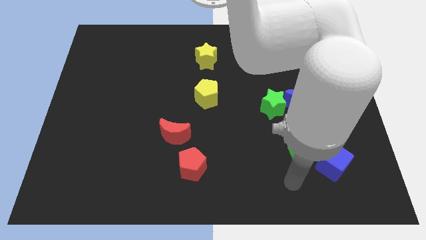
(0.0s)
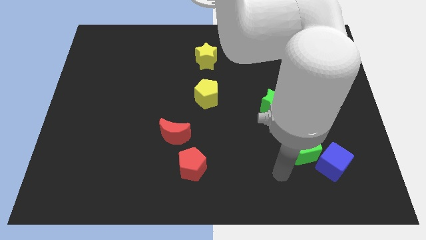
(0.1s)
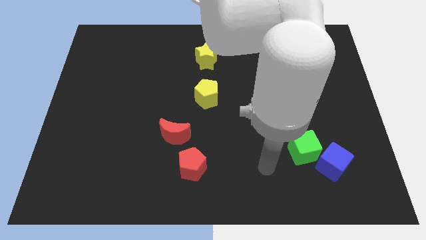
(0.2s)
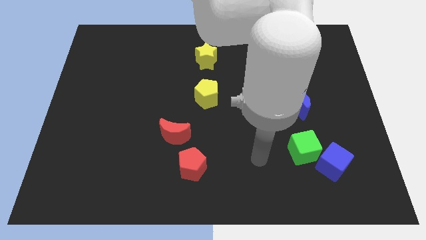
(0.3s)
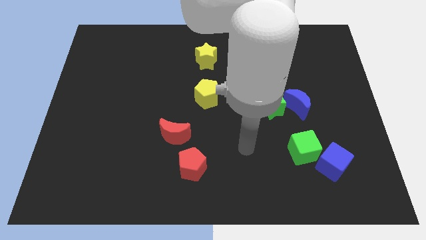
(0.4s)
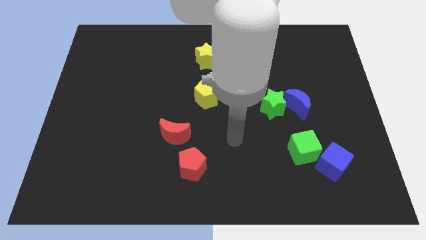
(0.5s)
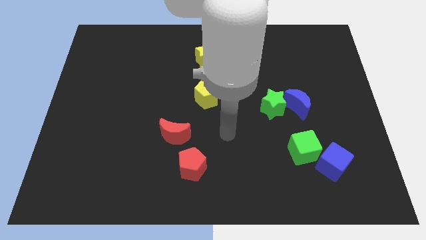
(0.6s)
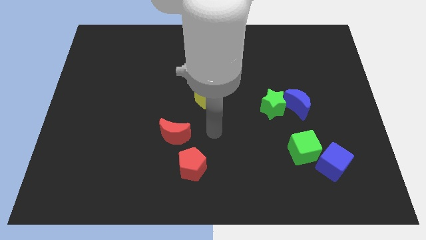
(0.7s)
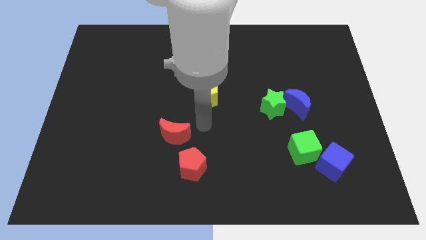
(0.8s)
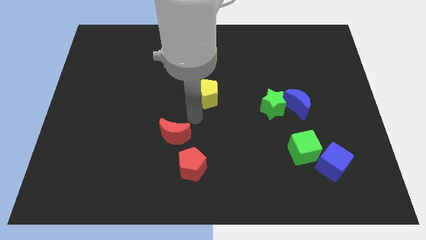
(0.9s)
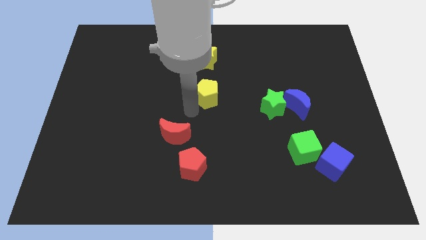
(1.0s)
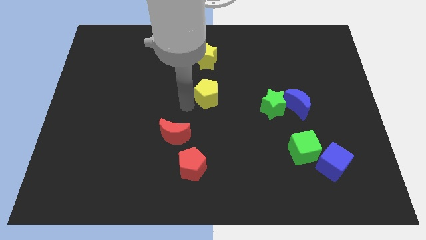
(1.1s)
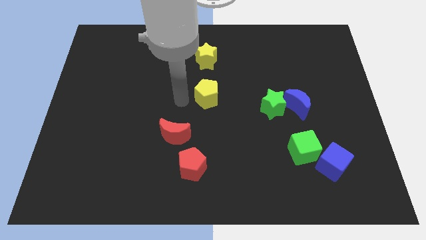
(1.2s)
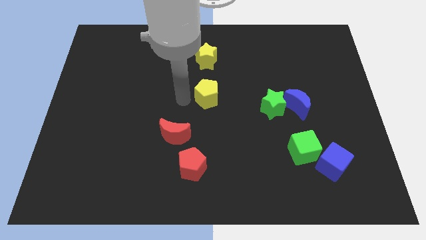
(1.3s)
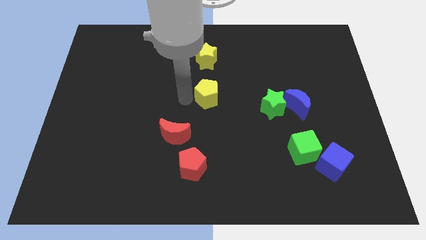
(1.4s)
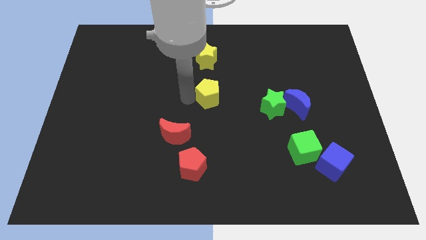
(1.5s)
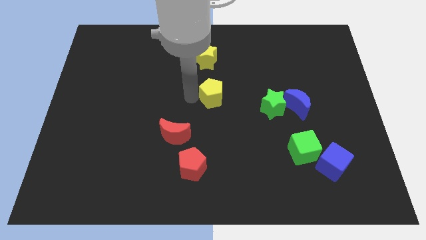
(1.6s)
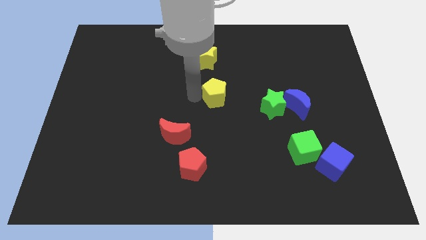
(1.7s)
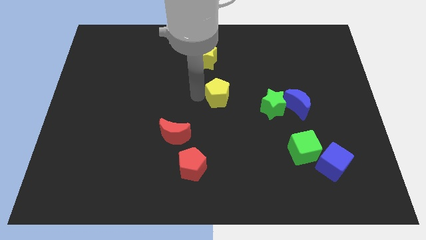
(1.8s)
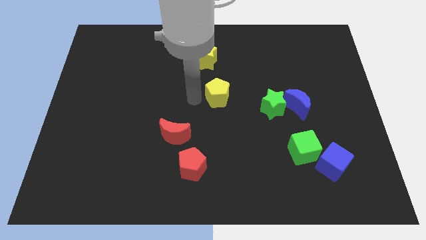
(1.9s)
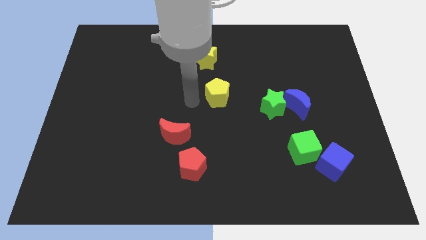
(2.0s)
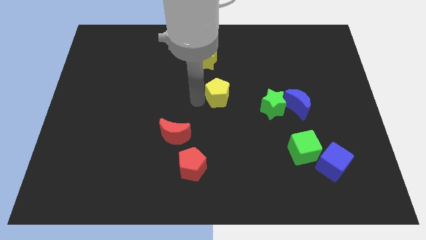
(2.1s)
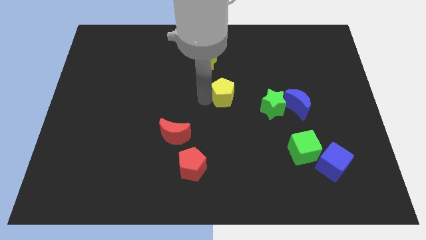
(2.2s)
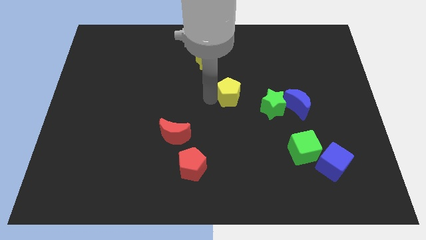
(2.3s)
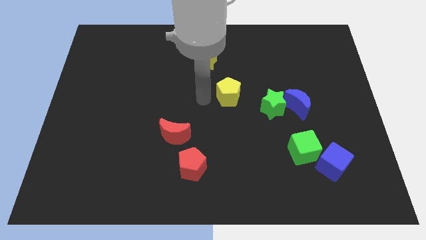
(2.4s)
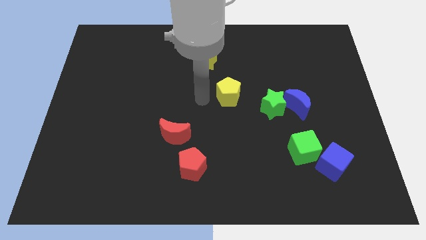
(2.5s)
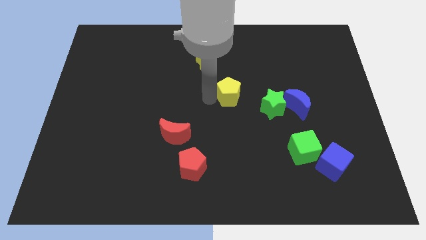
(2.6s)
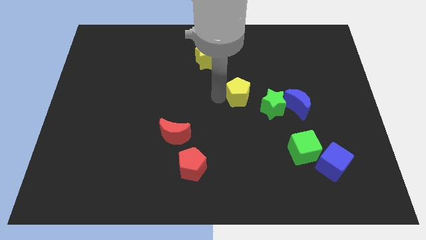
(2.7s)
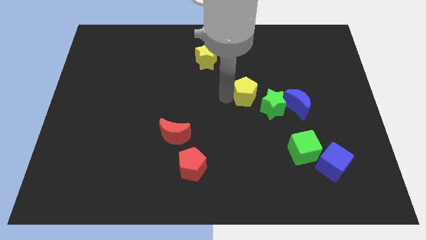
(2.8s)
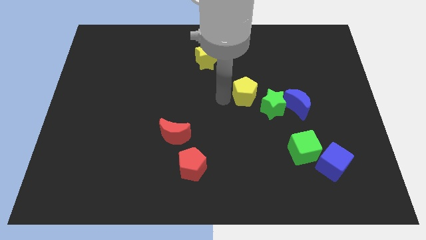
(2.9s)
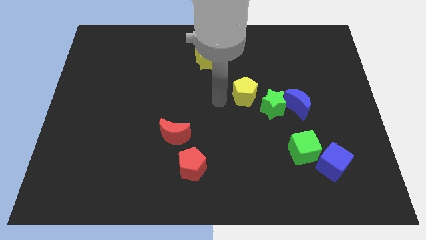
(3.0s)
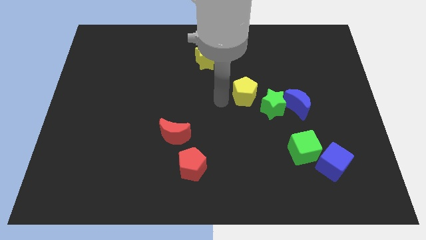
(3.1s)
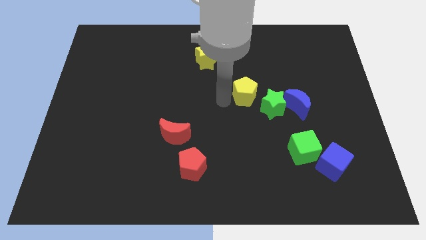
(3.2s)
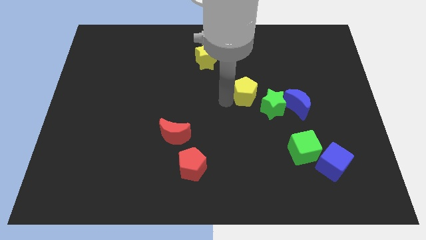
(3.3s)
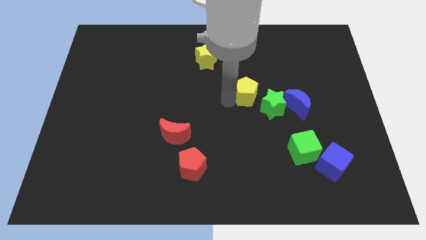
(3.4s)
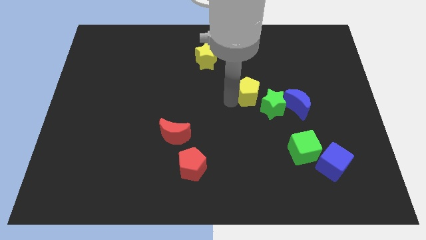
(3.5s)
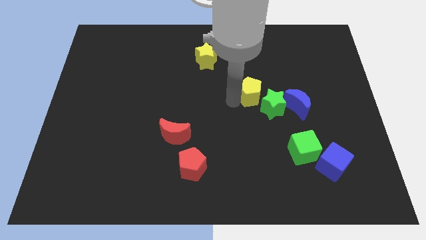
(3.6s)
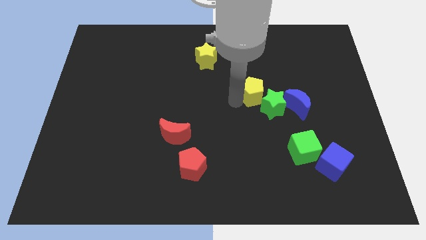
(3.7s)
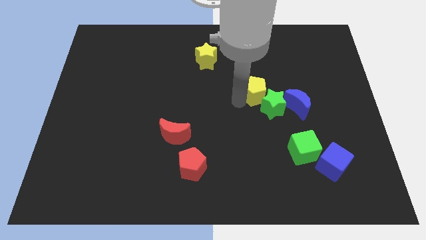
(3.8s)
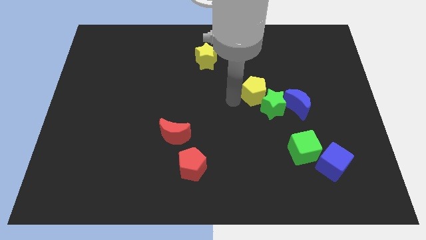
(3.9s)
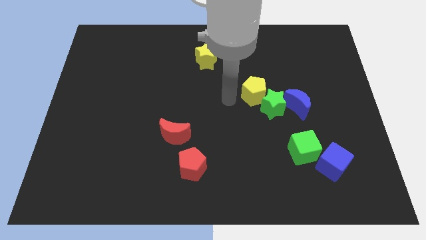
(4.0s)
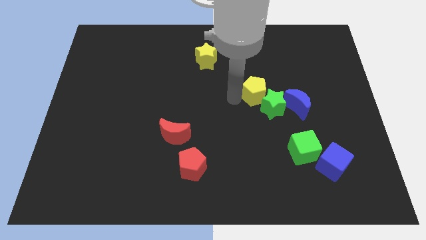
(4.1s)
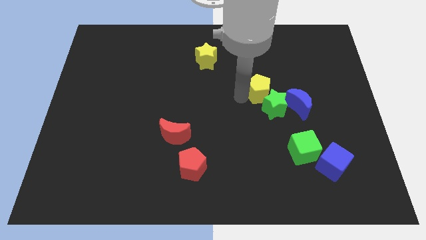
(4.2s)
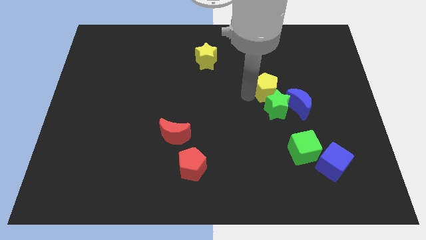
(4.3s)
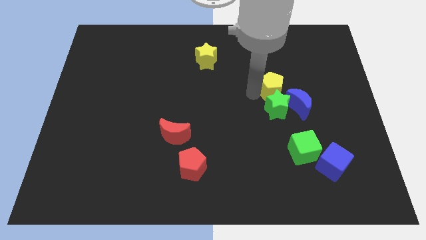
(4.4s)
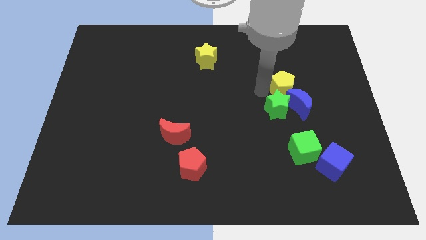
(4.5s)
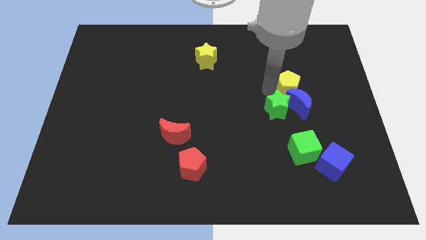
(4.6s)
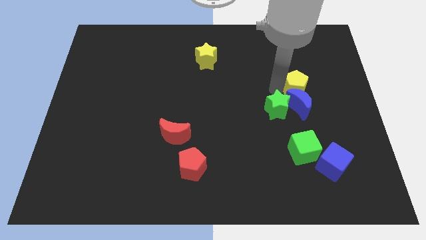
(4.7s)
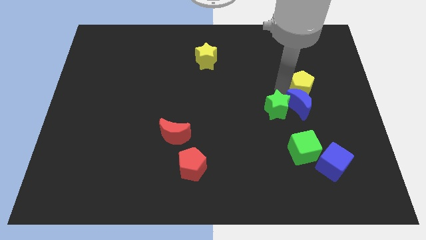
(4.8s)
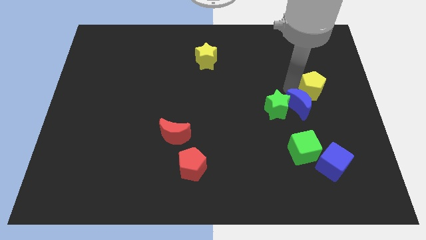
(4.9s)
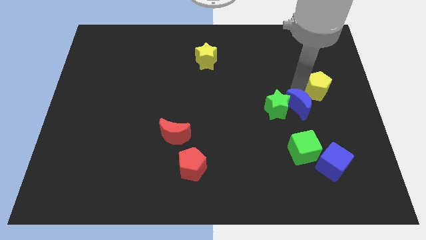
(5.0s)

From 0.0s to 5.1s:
push the yellow pentagon to the right side

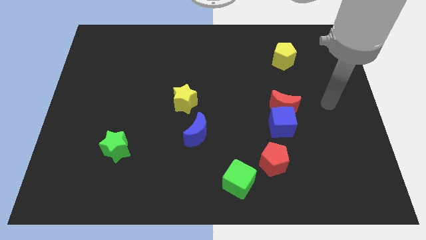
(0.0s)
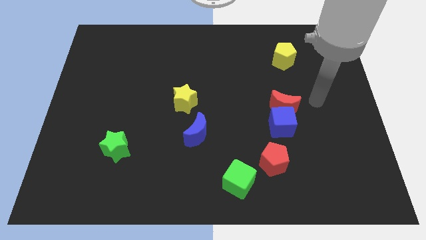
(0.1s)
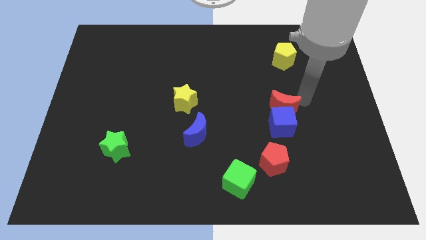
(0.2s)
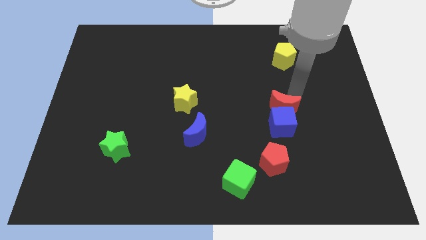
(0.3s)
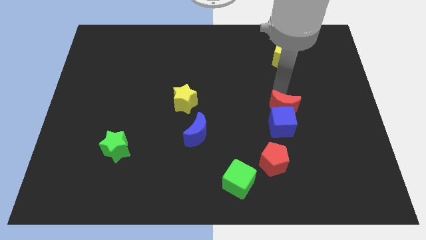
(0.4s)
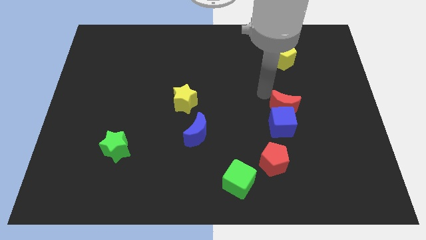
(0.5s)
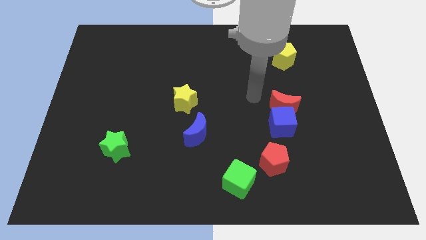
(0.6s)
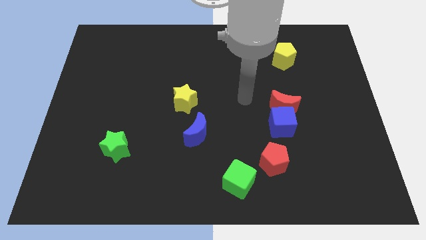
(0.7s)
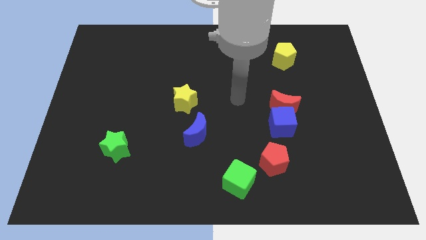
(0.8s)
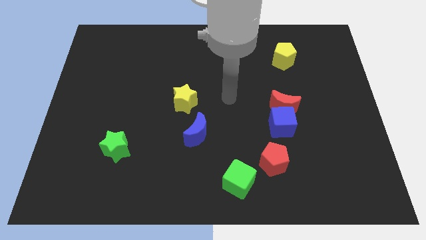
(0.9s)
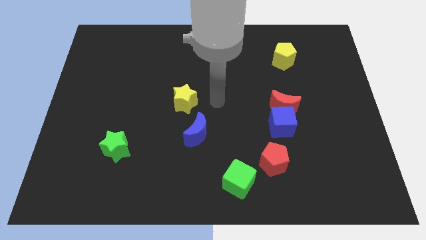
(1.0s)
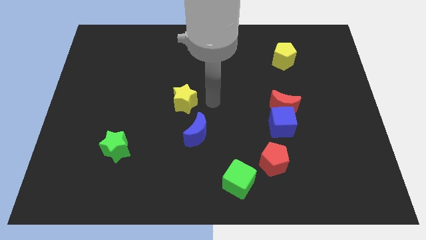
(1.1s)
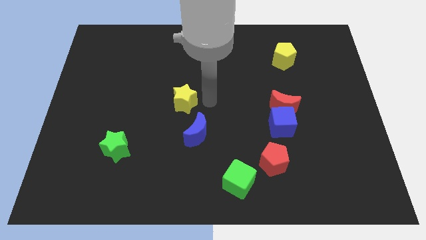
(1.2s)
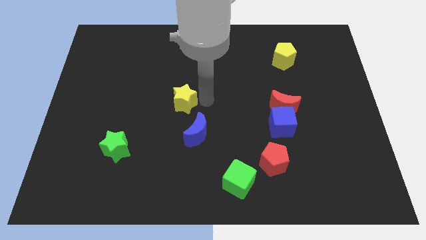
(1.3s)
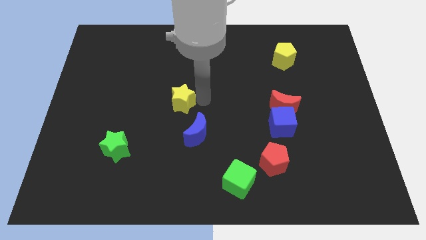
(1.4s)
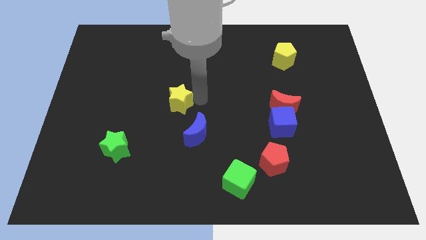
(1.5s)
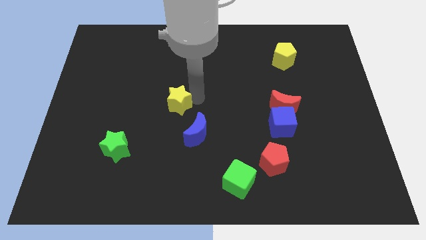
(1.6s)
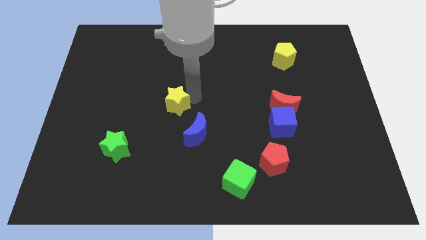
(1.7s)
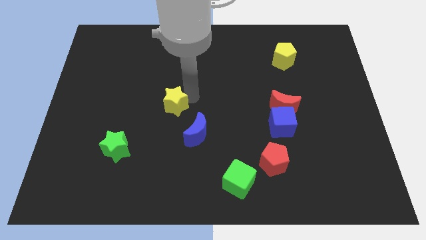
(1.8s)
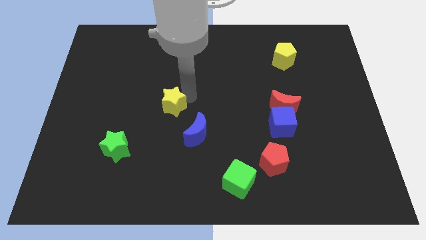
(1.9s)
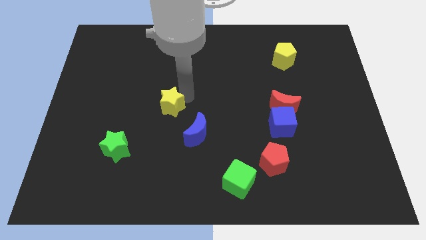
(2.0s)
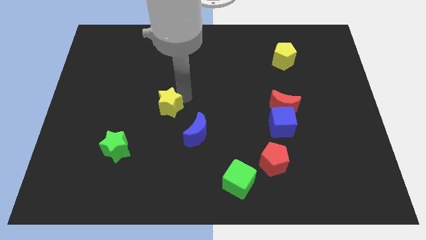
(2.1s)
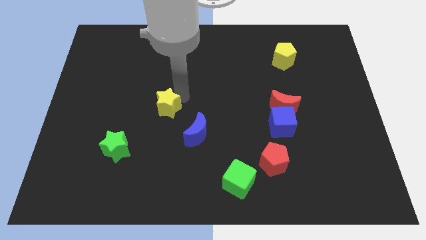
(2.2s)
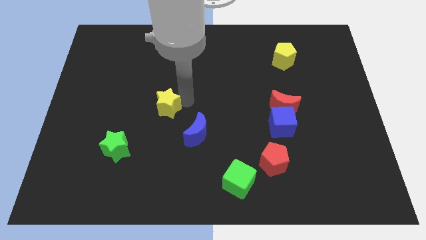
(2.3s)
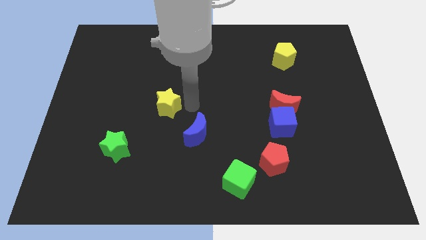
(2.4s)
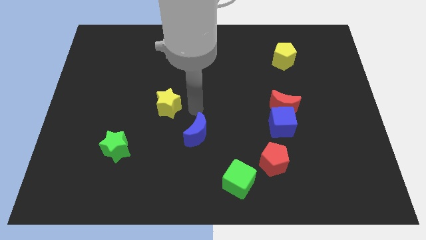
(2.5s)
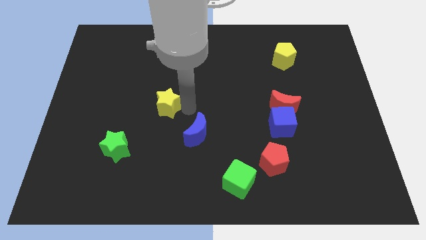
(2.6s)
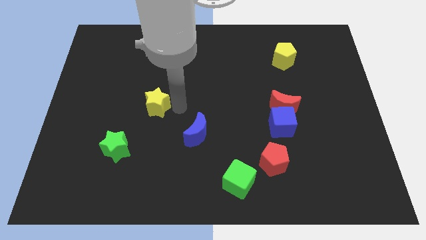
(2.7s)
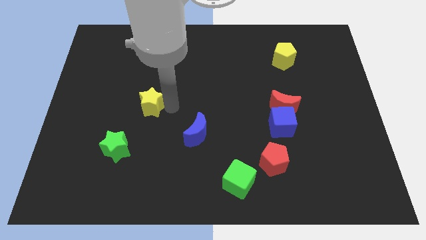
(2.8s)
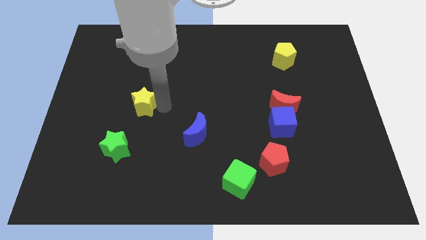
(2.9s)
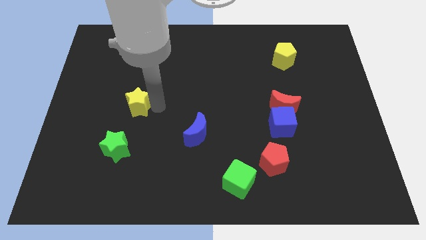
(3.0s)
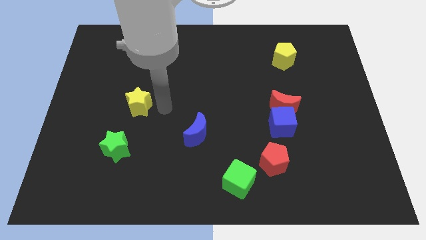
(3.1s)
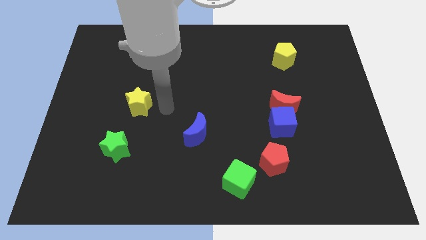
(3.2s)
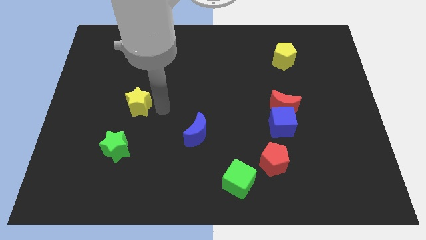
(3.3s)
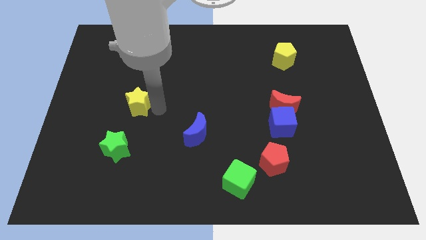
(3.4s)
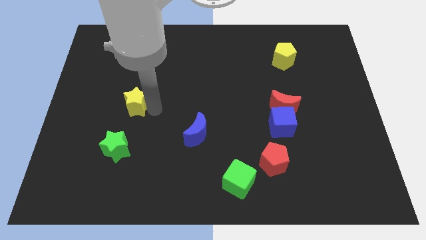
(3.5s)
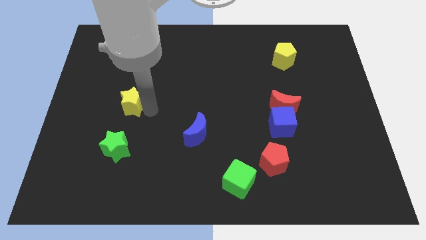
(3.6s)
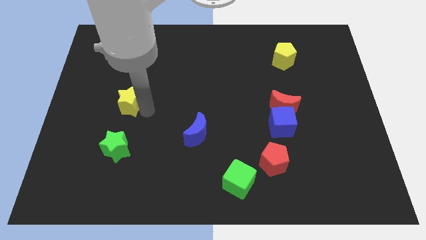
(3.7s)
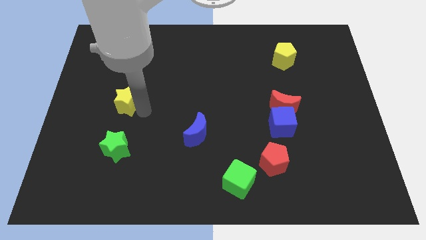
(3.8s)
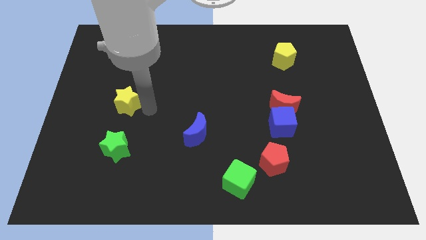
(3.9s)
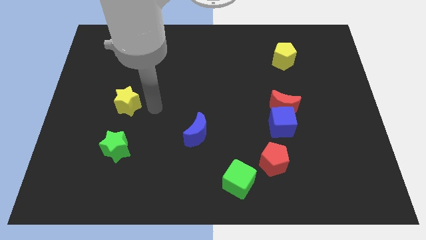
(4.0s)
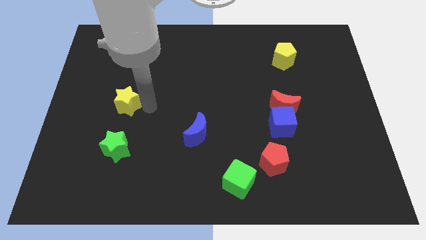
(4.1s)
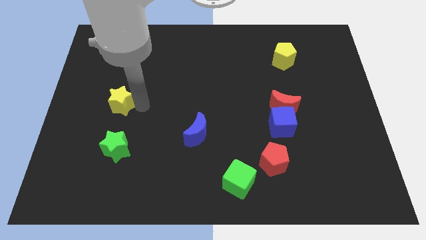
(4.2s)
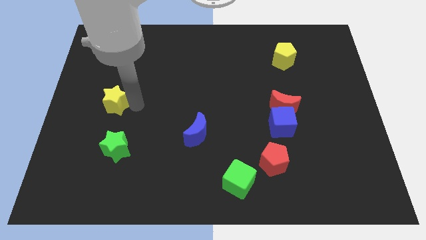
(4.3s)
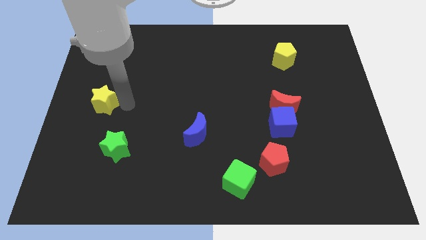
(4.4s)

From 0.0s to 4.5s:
move the yellow star to the left side
